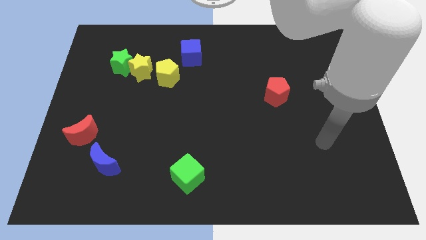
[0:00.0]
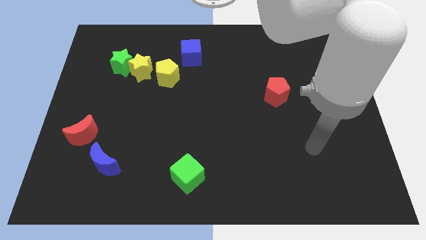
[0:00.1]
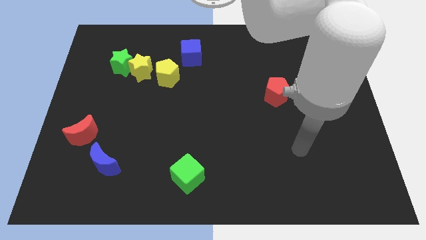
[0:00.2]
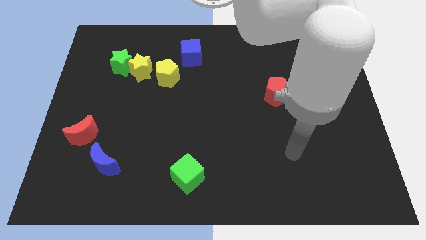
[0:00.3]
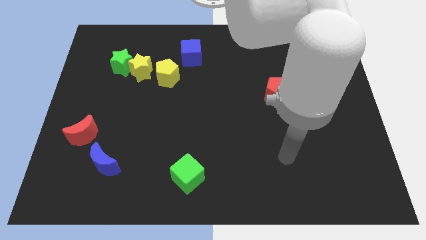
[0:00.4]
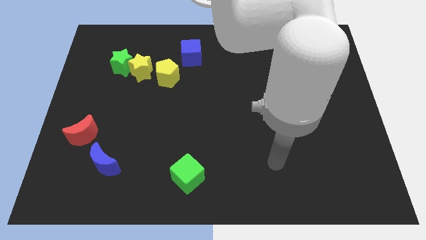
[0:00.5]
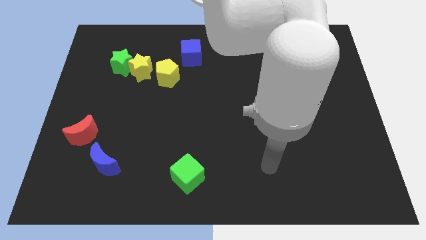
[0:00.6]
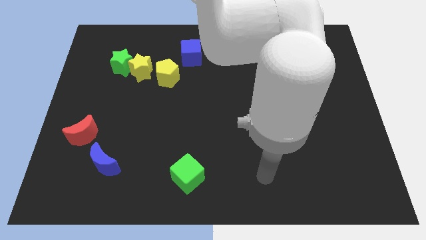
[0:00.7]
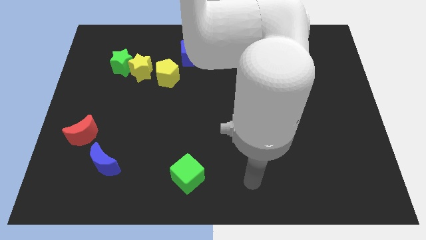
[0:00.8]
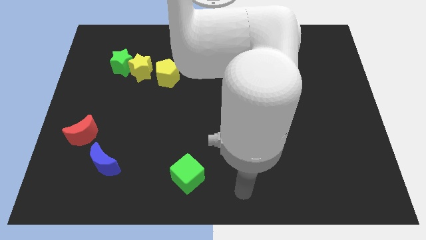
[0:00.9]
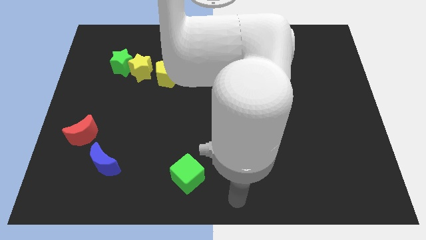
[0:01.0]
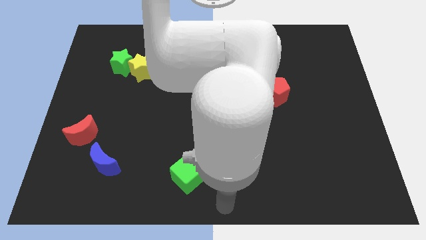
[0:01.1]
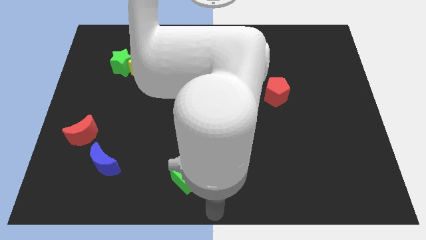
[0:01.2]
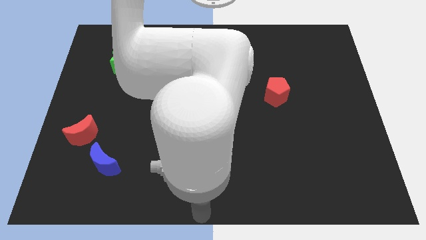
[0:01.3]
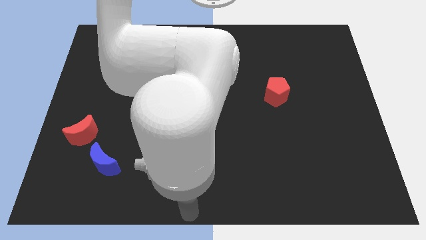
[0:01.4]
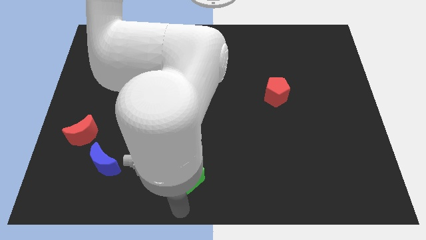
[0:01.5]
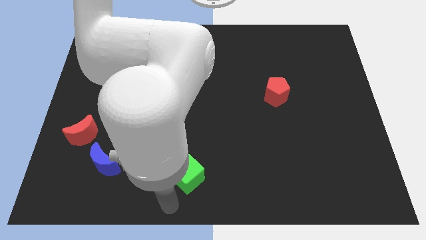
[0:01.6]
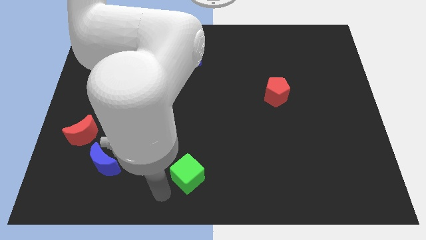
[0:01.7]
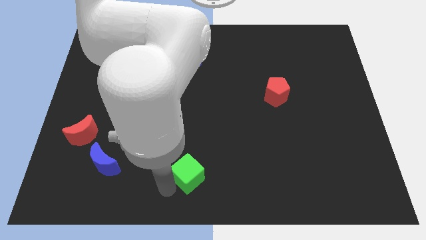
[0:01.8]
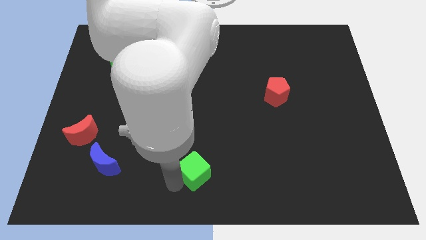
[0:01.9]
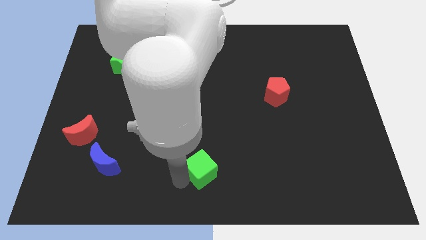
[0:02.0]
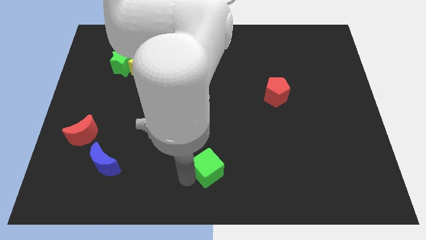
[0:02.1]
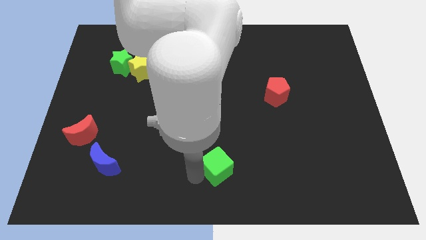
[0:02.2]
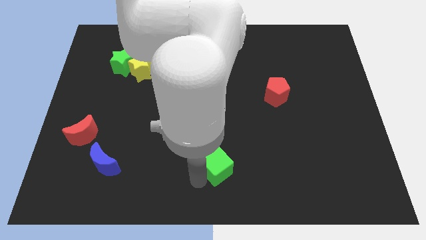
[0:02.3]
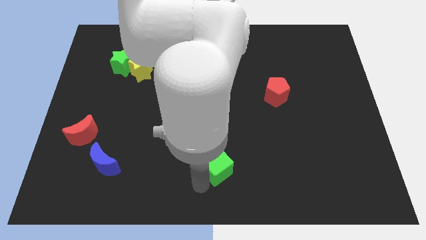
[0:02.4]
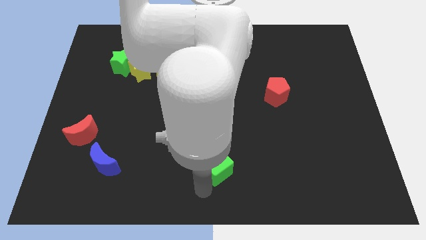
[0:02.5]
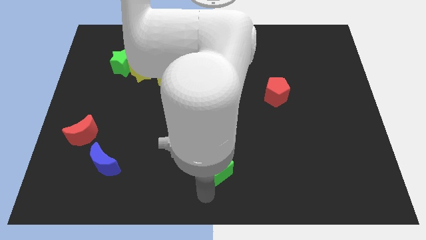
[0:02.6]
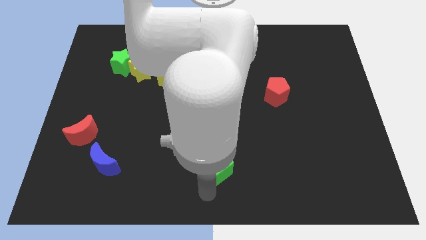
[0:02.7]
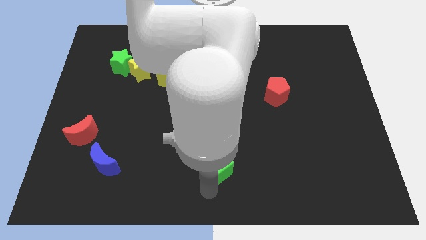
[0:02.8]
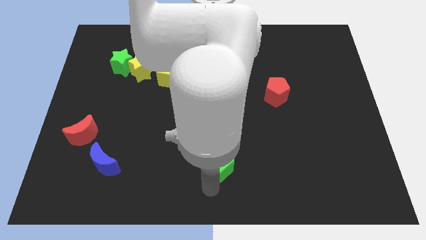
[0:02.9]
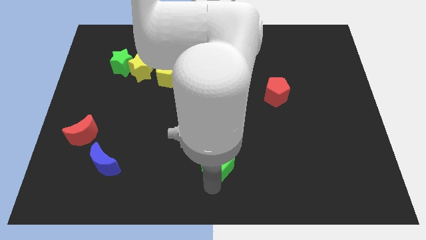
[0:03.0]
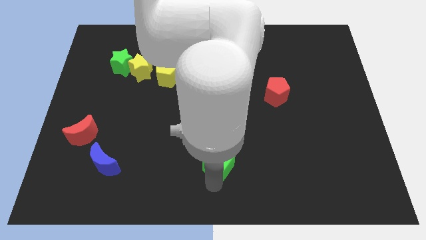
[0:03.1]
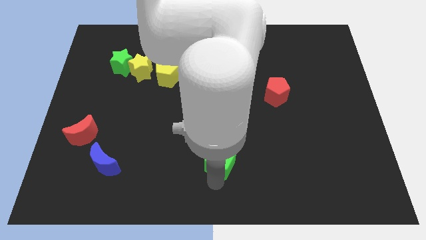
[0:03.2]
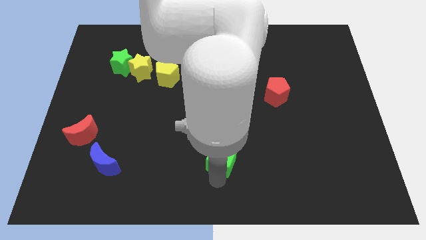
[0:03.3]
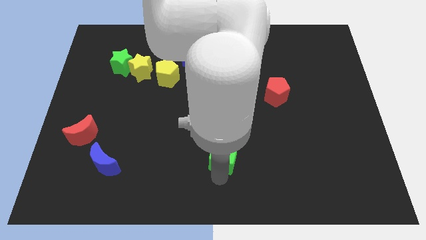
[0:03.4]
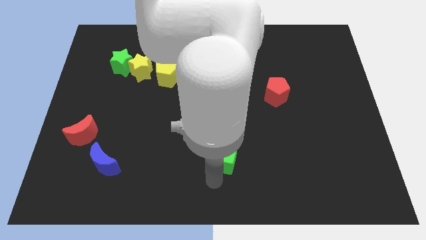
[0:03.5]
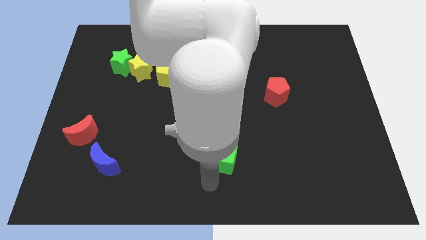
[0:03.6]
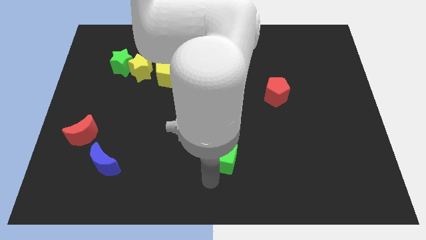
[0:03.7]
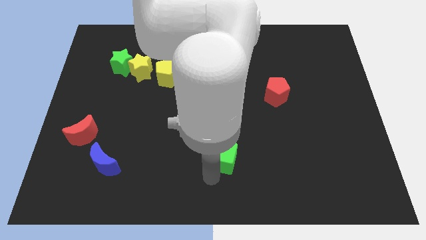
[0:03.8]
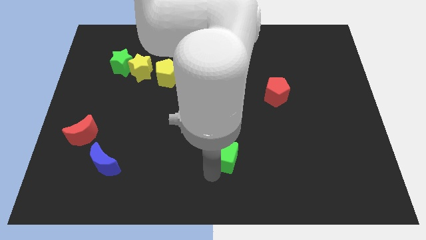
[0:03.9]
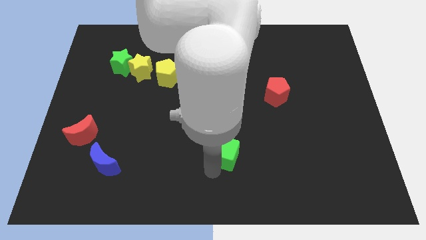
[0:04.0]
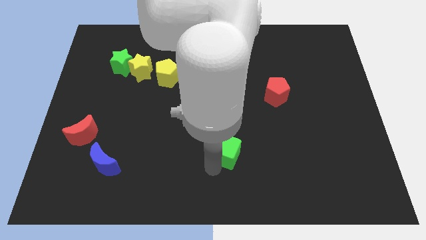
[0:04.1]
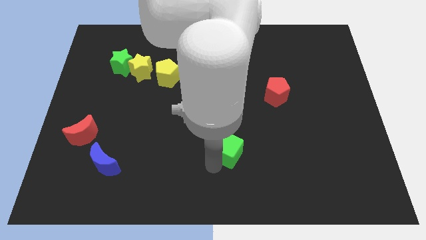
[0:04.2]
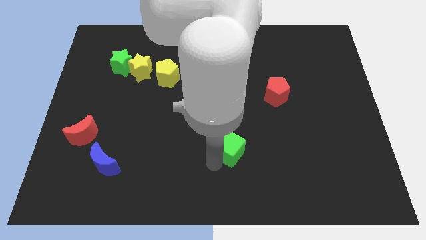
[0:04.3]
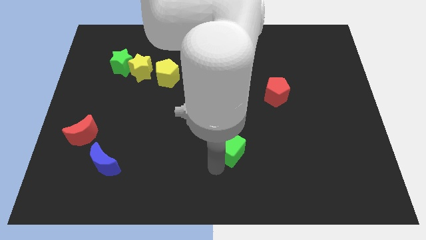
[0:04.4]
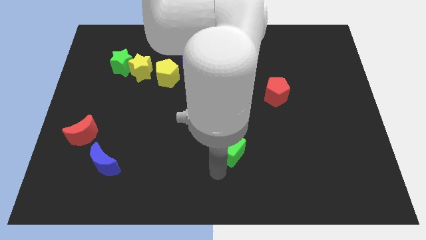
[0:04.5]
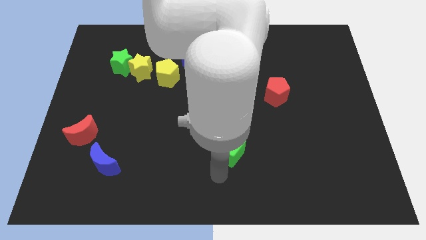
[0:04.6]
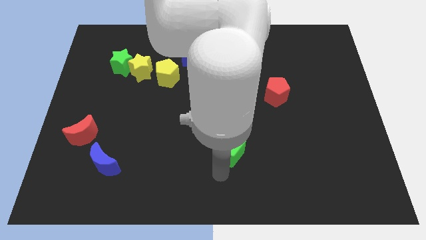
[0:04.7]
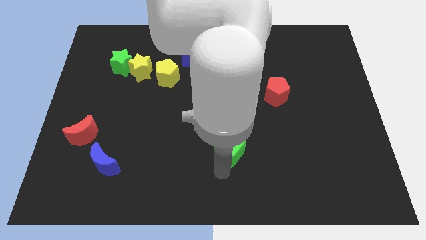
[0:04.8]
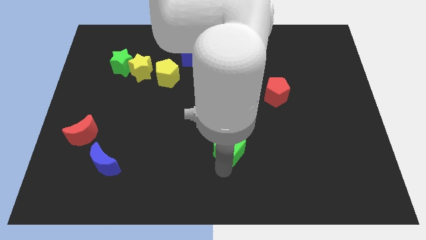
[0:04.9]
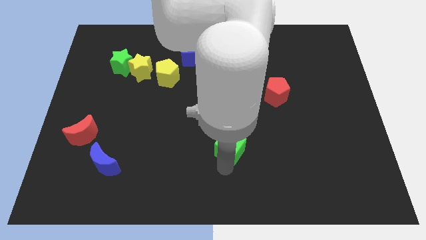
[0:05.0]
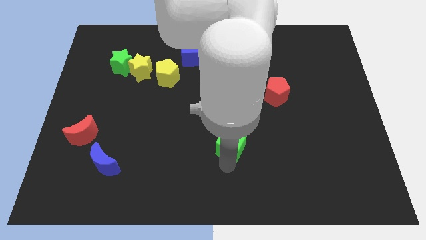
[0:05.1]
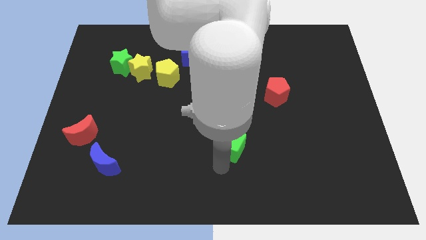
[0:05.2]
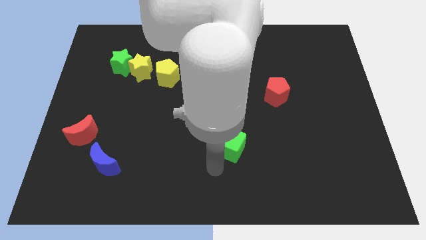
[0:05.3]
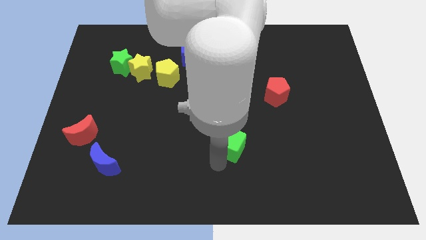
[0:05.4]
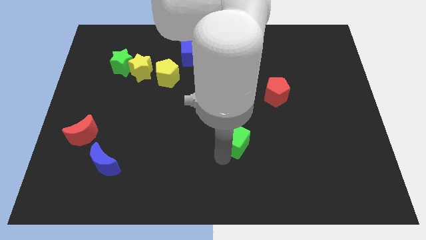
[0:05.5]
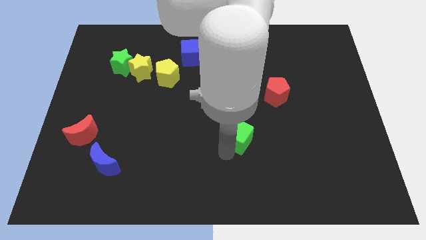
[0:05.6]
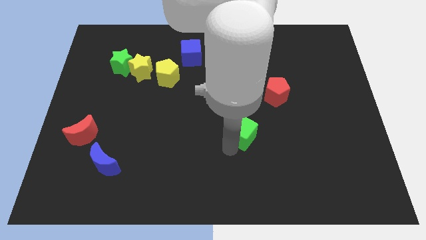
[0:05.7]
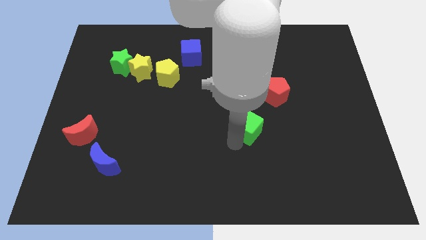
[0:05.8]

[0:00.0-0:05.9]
put the green cube to the bottom left side of the red pentagon

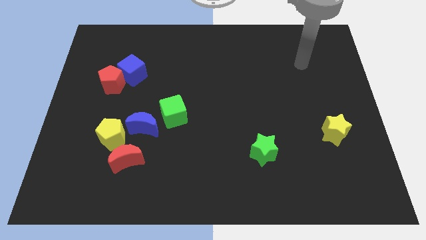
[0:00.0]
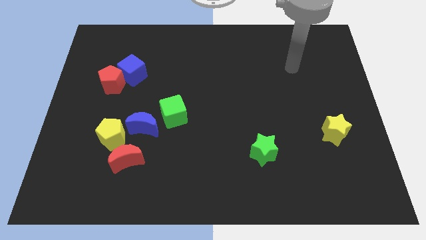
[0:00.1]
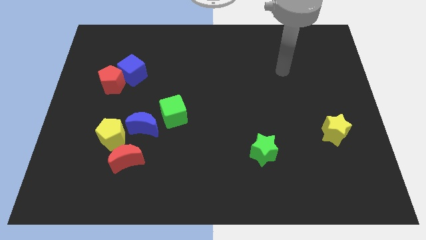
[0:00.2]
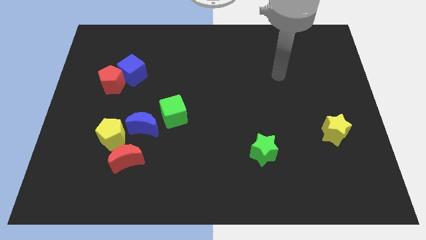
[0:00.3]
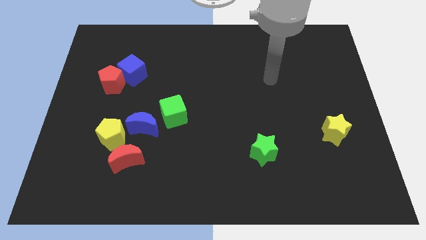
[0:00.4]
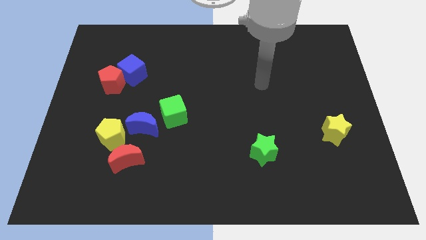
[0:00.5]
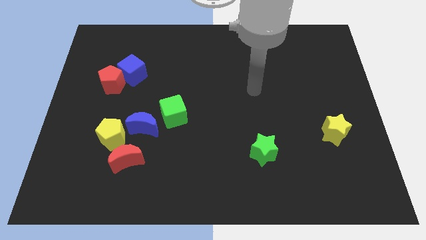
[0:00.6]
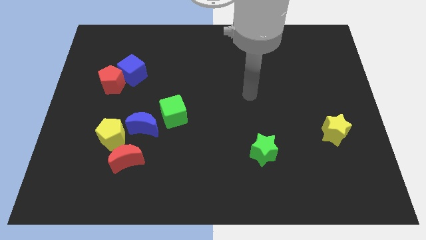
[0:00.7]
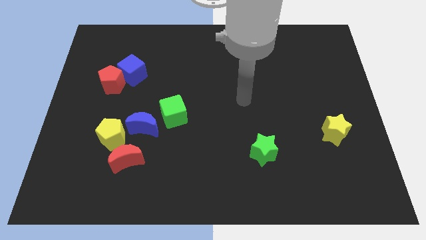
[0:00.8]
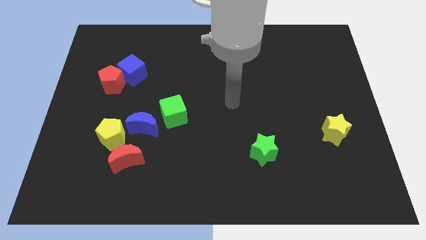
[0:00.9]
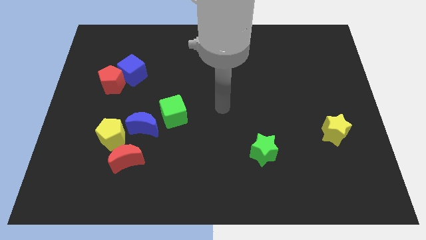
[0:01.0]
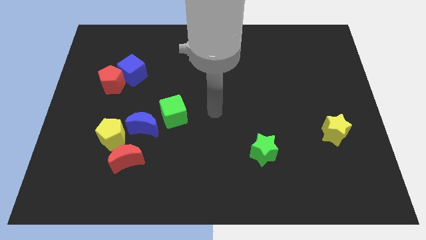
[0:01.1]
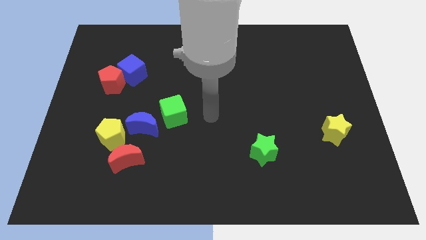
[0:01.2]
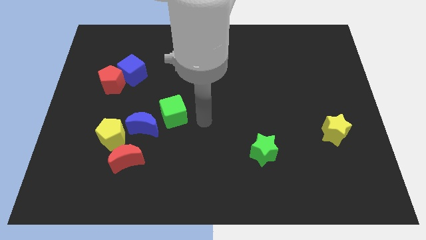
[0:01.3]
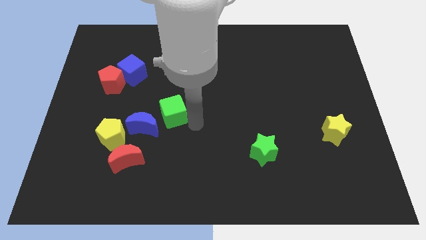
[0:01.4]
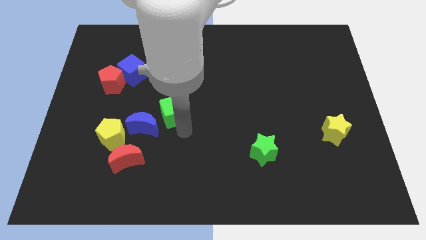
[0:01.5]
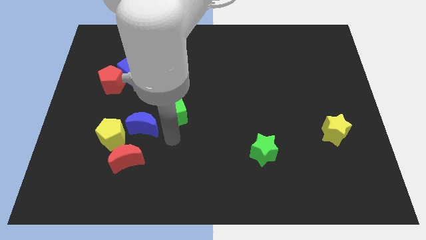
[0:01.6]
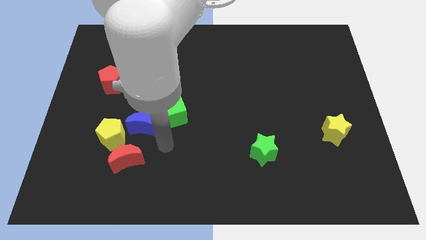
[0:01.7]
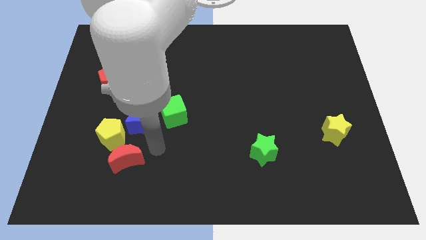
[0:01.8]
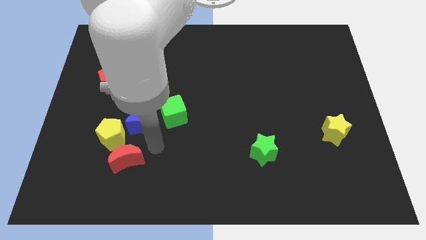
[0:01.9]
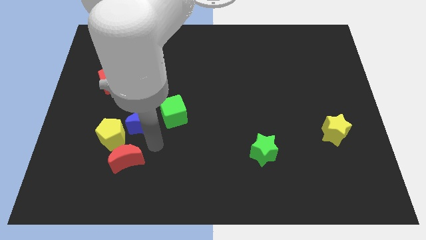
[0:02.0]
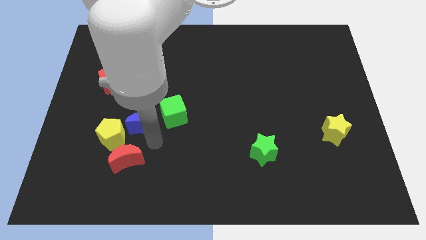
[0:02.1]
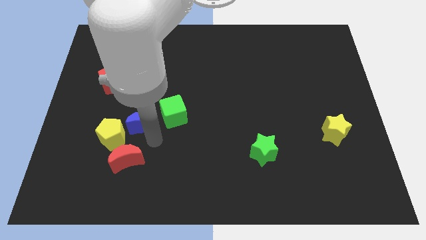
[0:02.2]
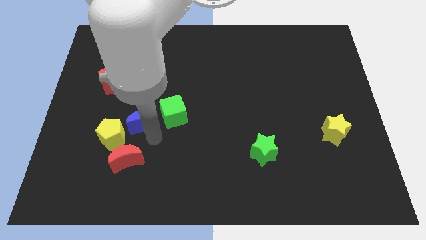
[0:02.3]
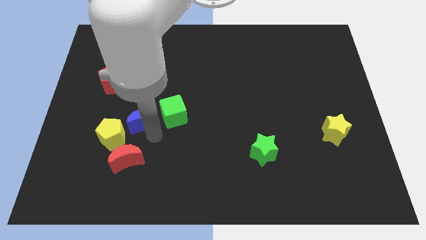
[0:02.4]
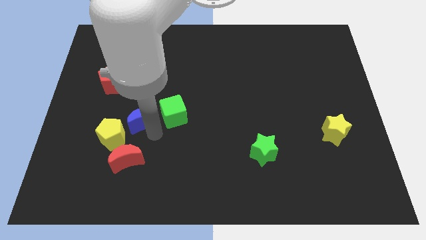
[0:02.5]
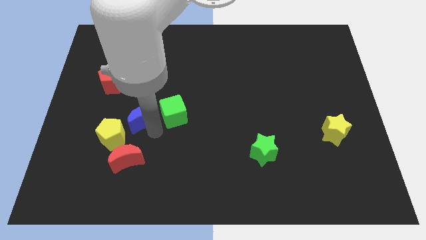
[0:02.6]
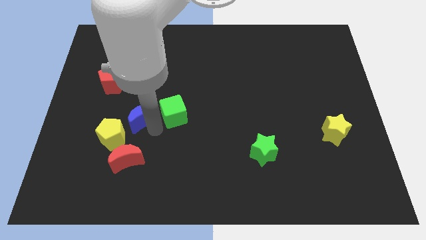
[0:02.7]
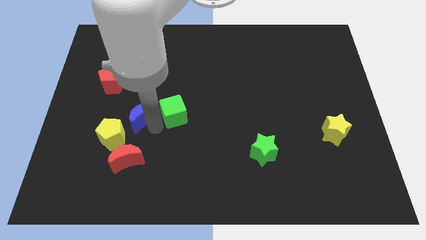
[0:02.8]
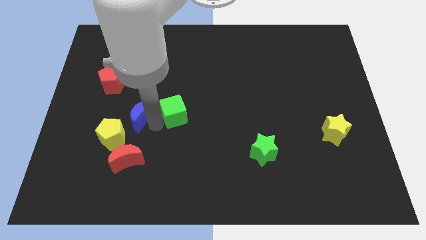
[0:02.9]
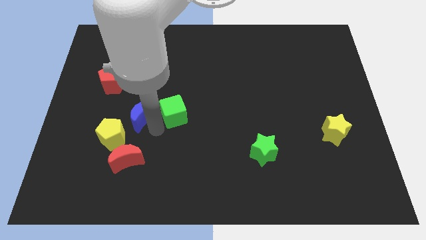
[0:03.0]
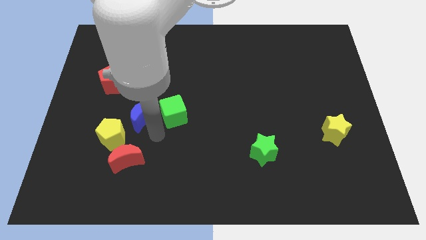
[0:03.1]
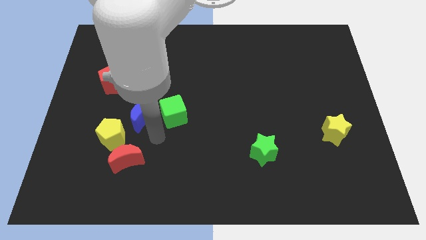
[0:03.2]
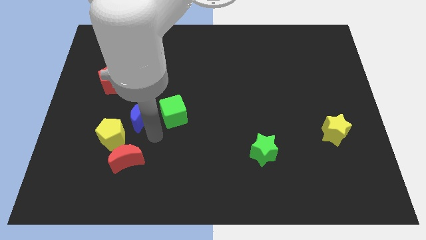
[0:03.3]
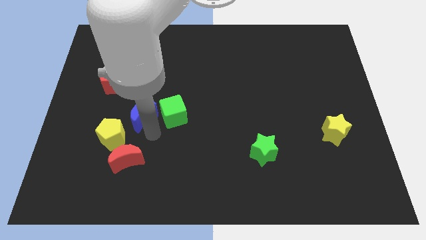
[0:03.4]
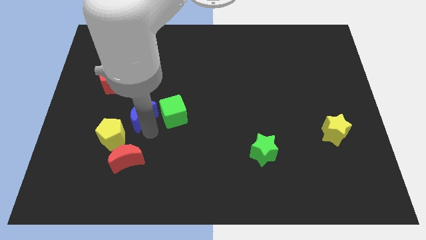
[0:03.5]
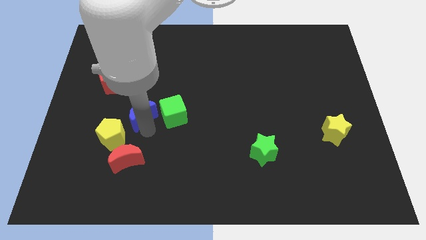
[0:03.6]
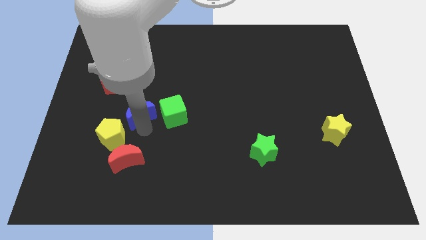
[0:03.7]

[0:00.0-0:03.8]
push the blue moon diagonally down and to the right of the red pentagon
